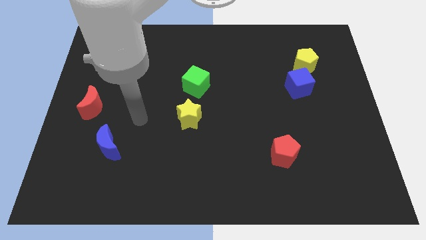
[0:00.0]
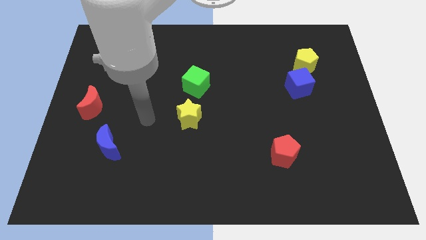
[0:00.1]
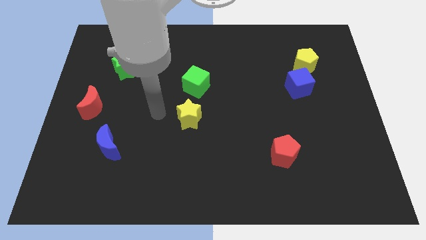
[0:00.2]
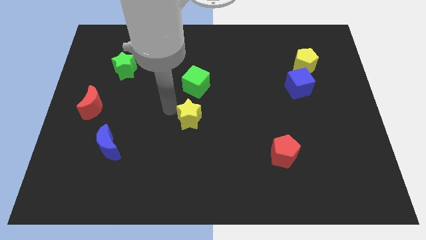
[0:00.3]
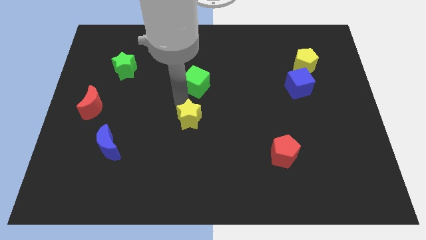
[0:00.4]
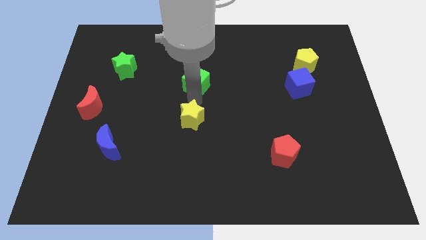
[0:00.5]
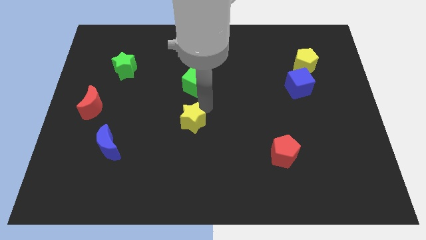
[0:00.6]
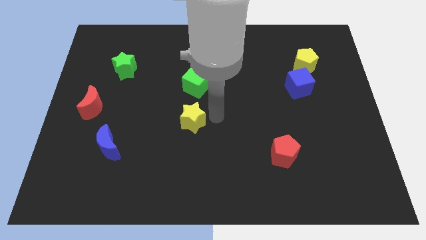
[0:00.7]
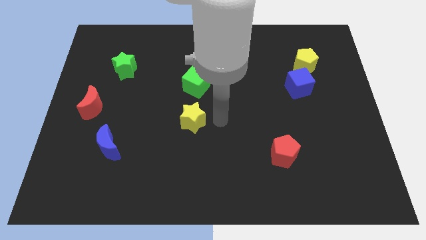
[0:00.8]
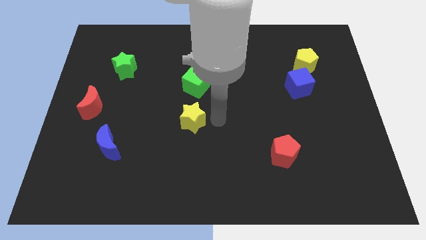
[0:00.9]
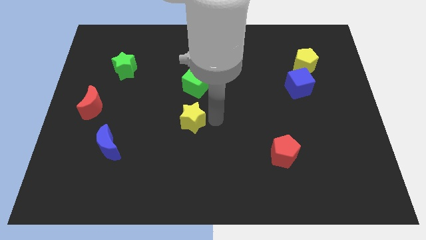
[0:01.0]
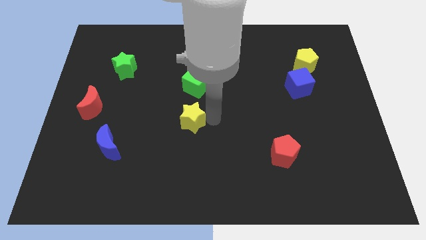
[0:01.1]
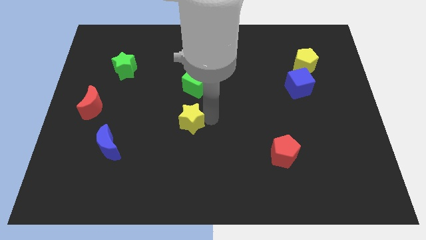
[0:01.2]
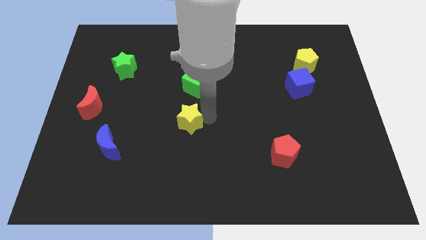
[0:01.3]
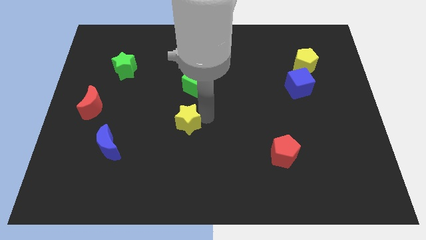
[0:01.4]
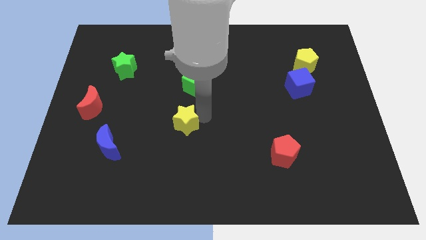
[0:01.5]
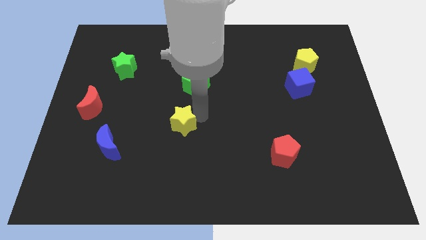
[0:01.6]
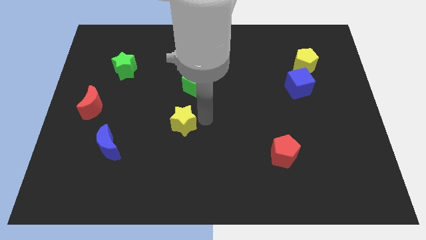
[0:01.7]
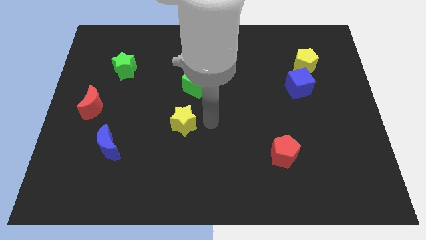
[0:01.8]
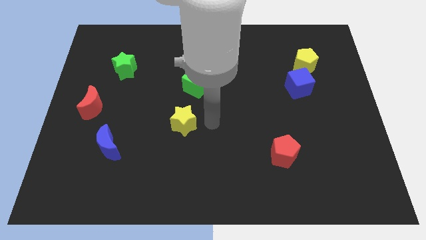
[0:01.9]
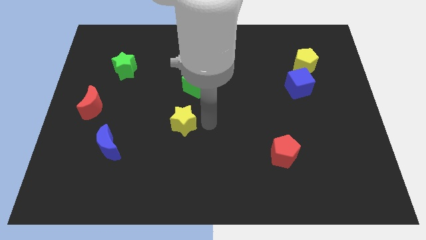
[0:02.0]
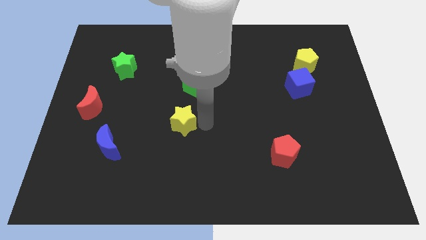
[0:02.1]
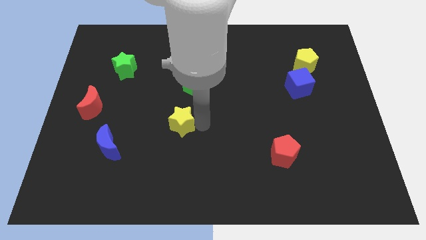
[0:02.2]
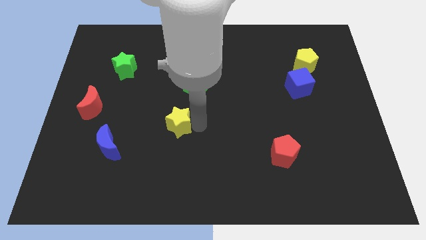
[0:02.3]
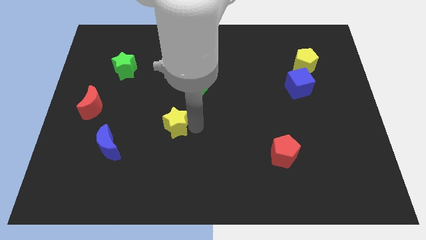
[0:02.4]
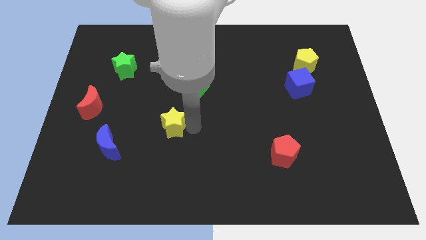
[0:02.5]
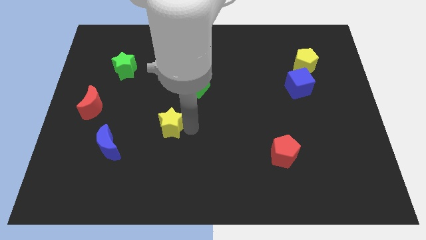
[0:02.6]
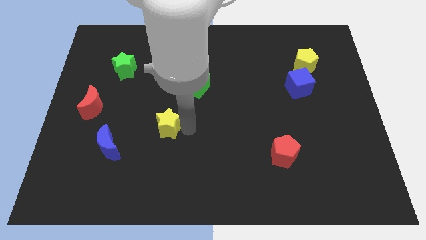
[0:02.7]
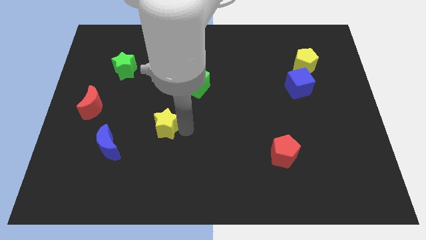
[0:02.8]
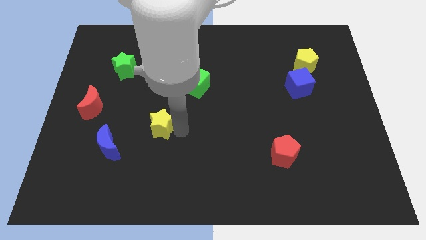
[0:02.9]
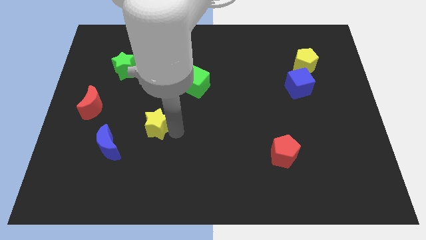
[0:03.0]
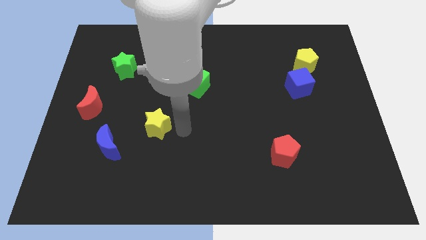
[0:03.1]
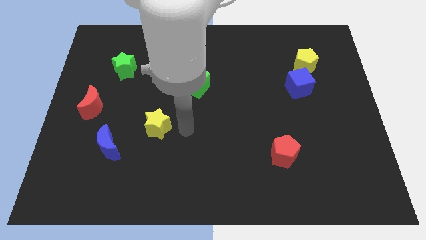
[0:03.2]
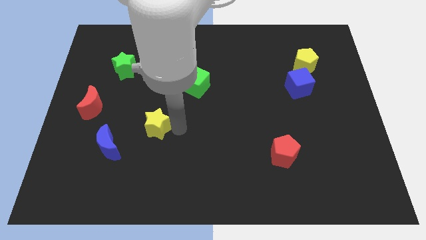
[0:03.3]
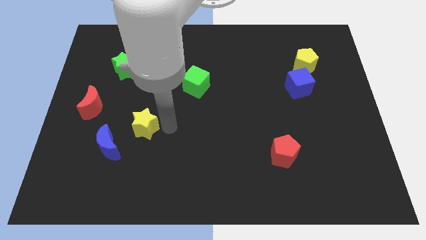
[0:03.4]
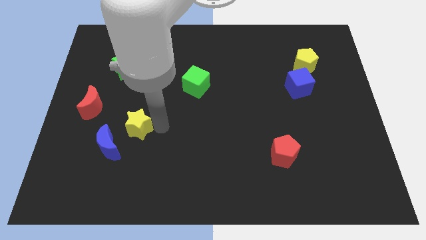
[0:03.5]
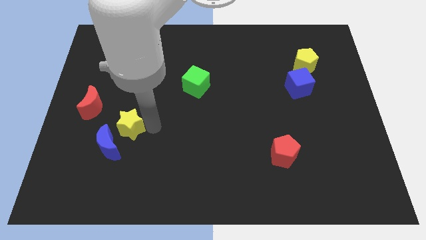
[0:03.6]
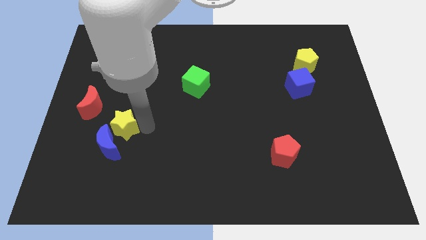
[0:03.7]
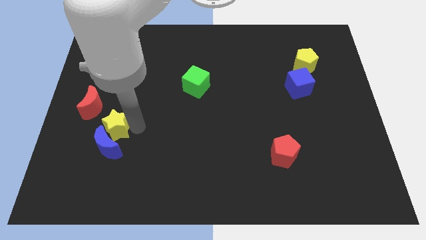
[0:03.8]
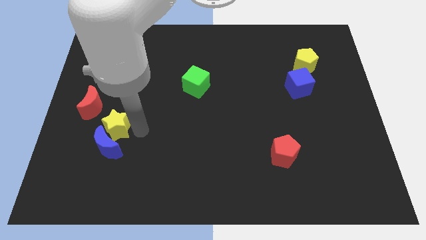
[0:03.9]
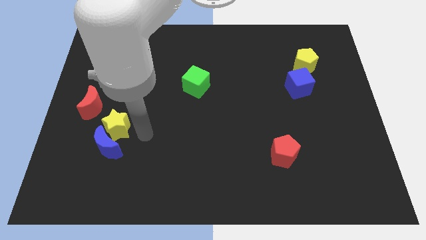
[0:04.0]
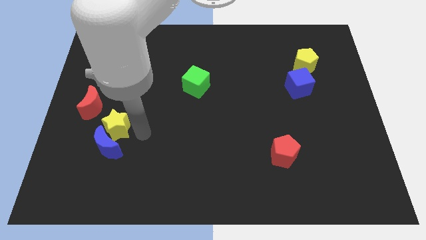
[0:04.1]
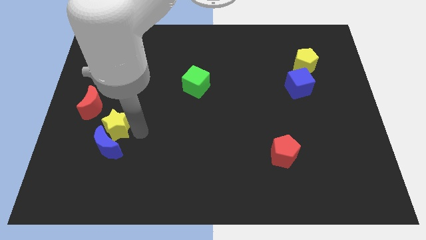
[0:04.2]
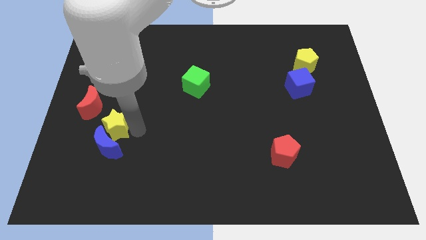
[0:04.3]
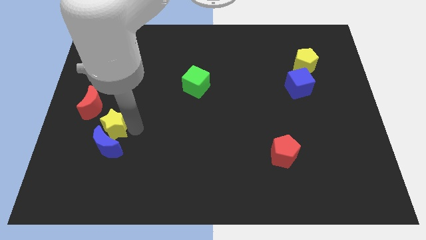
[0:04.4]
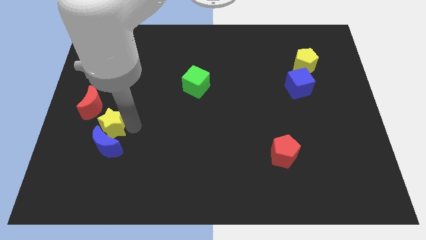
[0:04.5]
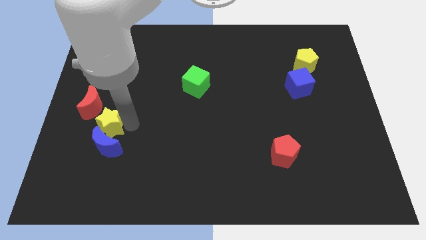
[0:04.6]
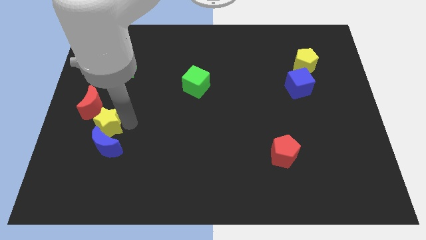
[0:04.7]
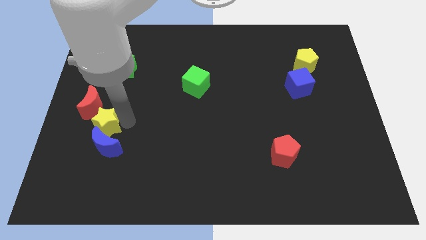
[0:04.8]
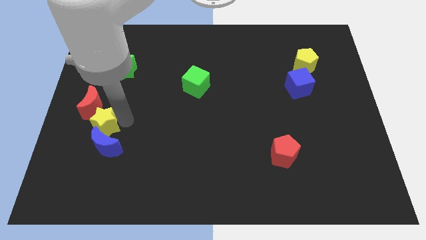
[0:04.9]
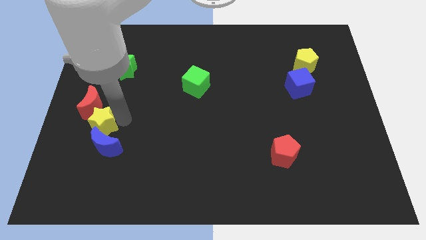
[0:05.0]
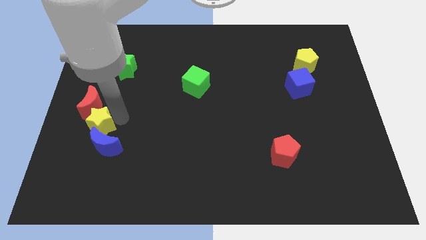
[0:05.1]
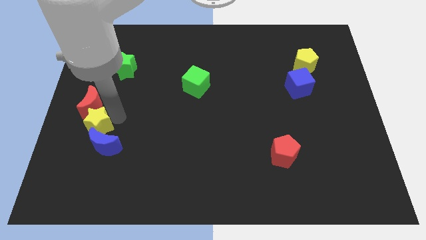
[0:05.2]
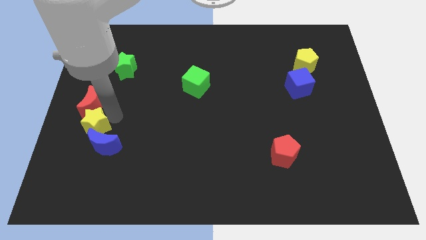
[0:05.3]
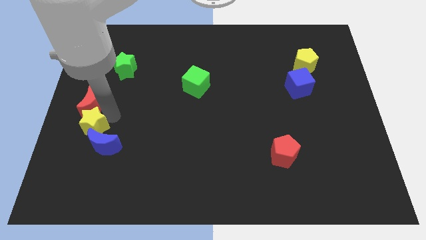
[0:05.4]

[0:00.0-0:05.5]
push the yellow star to the left side of the board

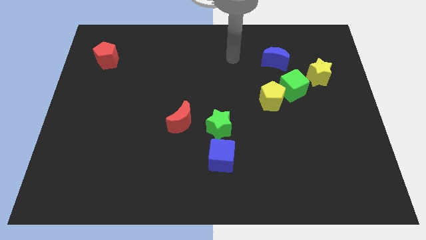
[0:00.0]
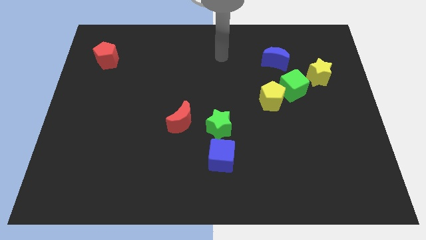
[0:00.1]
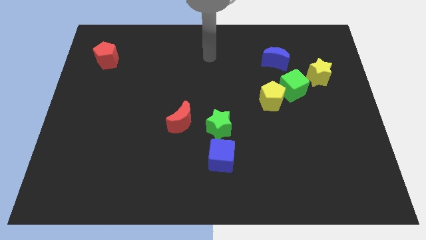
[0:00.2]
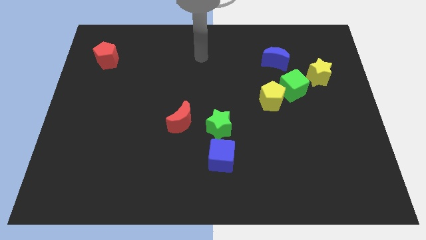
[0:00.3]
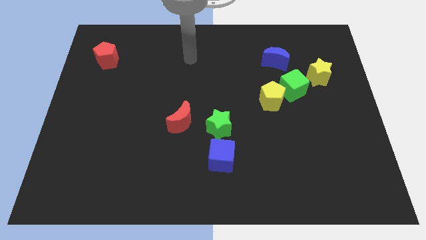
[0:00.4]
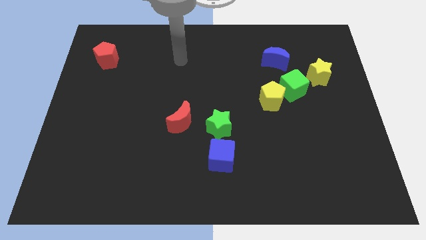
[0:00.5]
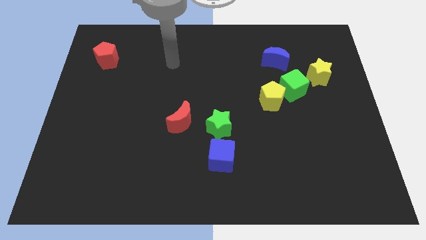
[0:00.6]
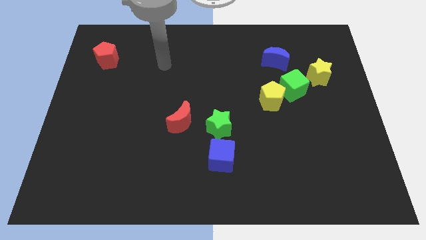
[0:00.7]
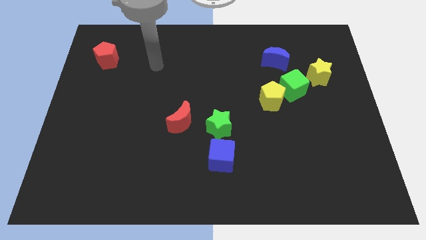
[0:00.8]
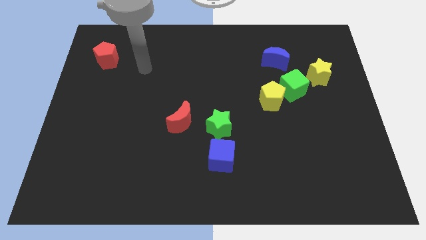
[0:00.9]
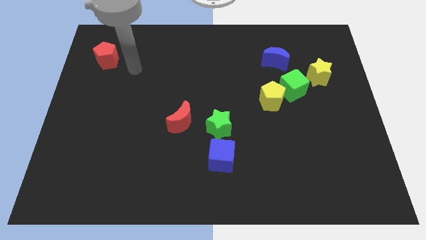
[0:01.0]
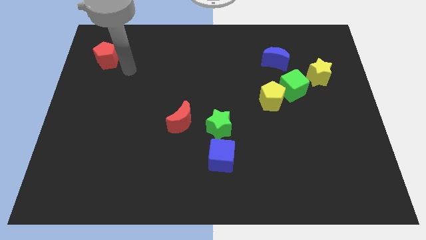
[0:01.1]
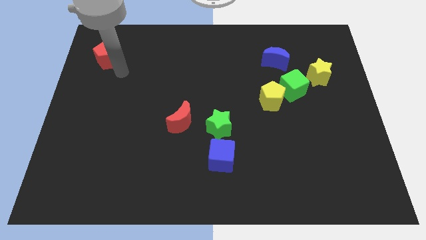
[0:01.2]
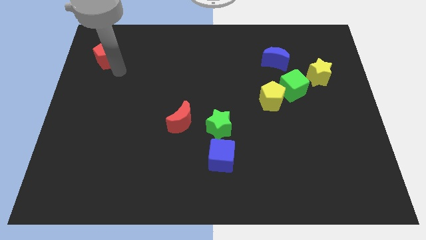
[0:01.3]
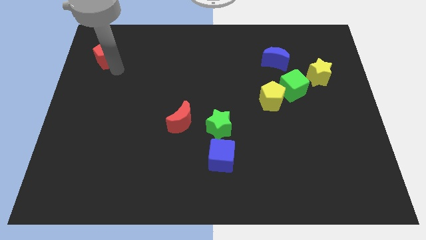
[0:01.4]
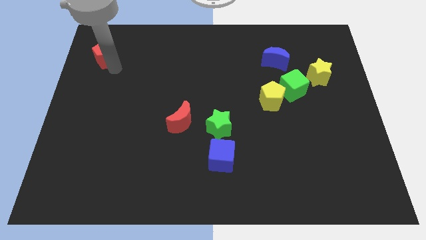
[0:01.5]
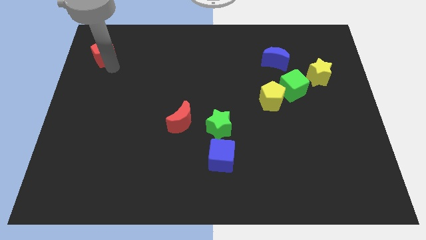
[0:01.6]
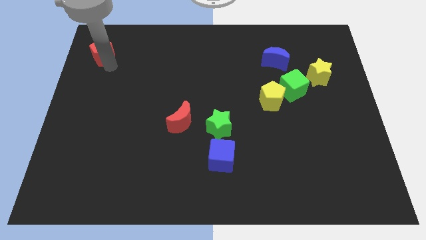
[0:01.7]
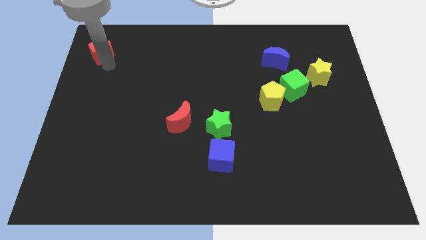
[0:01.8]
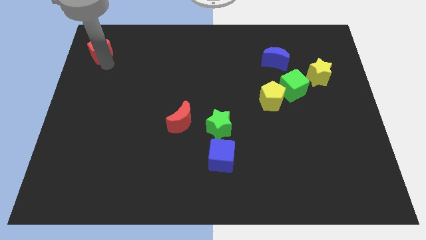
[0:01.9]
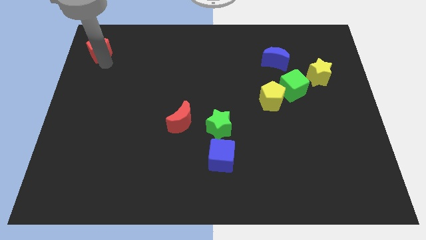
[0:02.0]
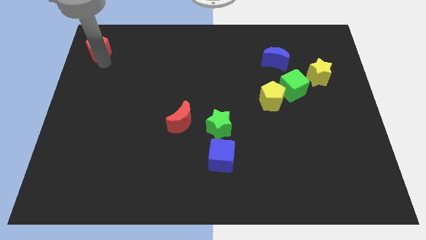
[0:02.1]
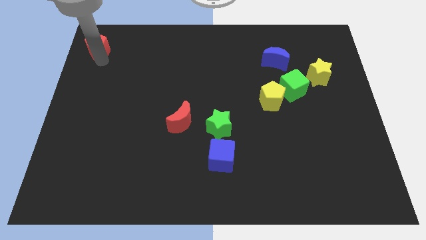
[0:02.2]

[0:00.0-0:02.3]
put the red pentagon to the top left corner
